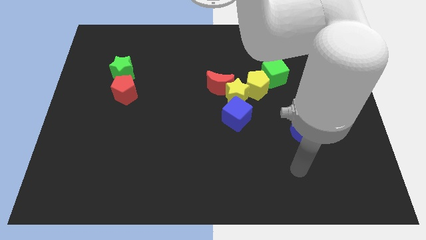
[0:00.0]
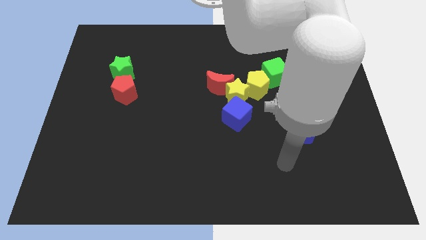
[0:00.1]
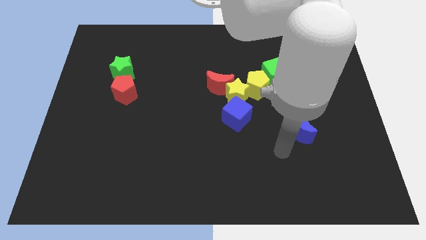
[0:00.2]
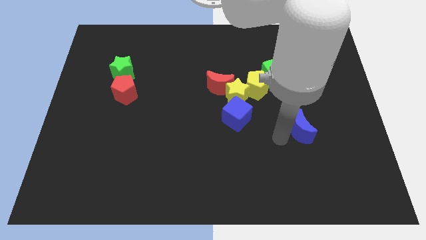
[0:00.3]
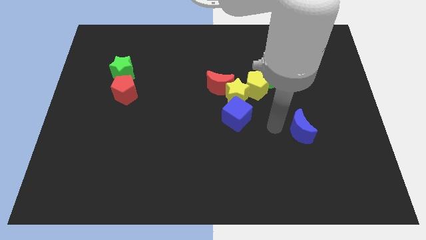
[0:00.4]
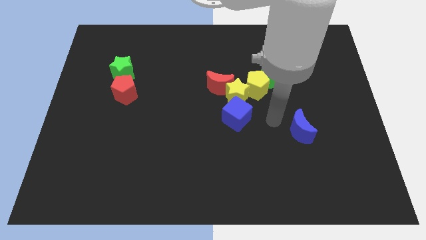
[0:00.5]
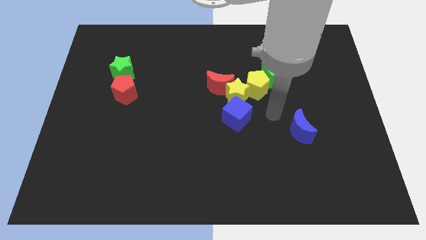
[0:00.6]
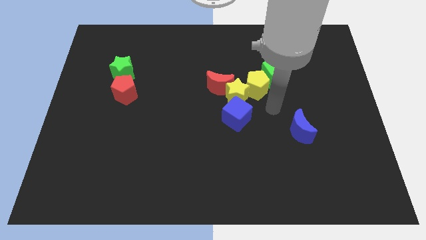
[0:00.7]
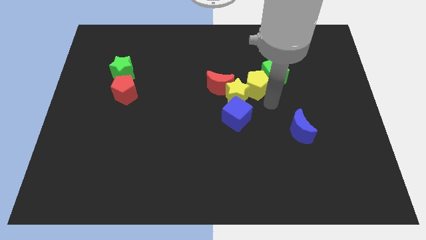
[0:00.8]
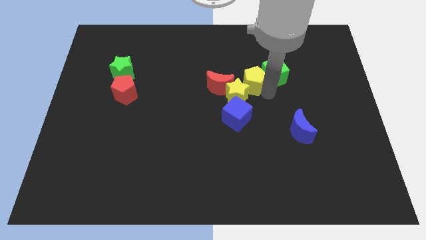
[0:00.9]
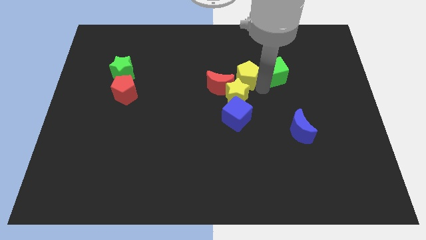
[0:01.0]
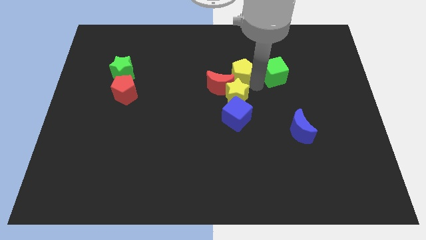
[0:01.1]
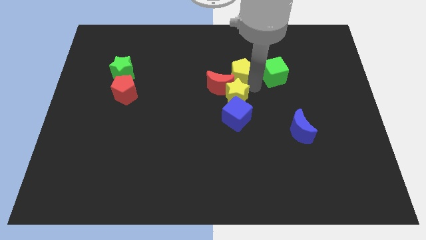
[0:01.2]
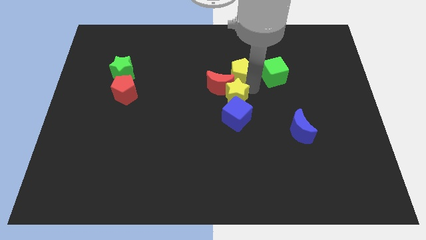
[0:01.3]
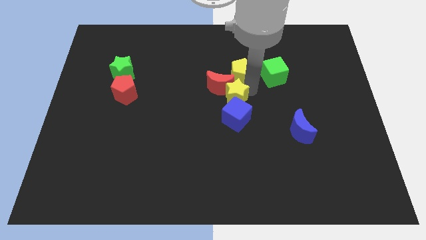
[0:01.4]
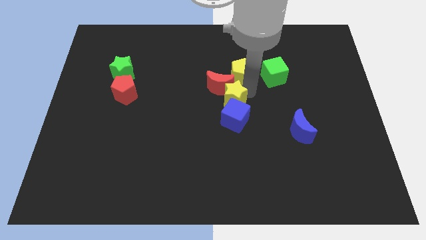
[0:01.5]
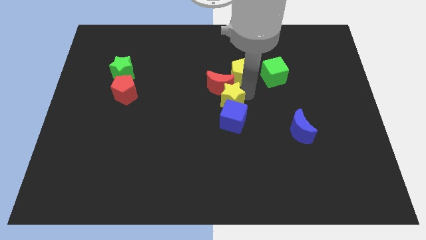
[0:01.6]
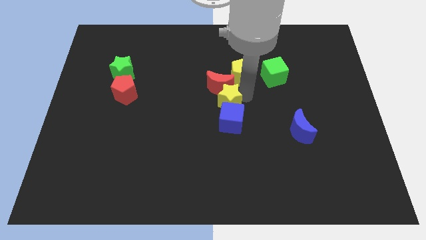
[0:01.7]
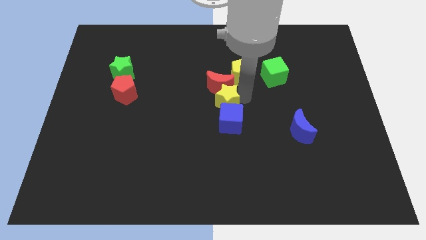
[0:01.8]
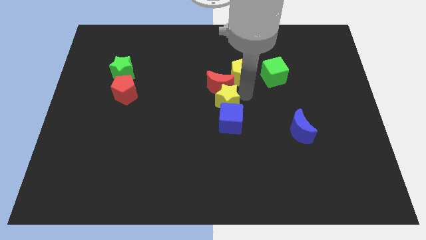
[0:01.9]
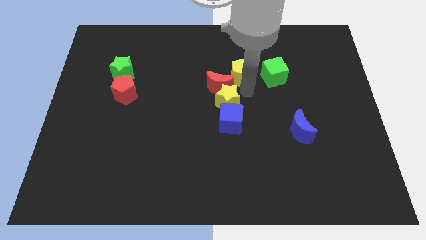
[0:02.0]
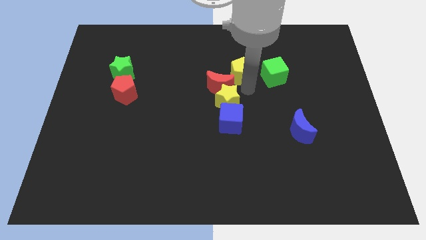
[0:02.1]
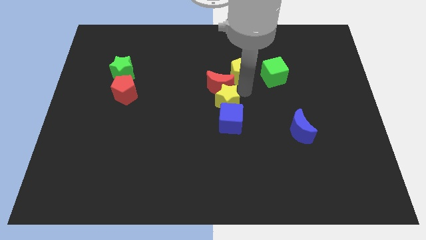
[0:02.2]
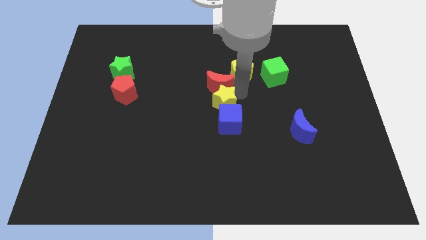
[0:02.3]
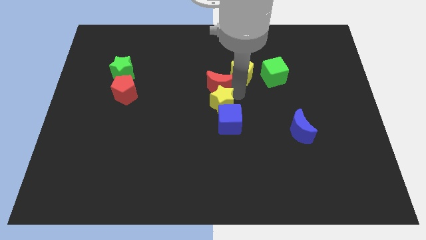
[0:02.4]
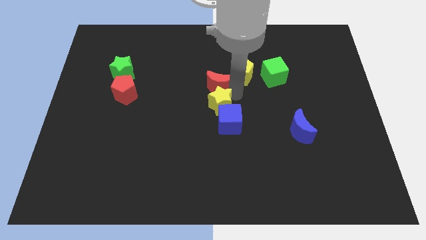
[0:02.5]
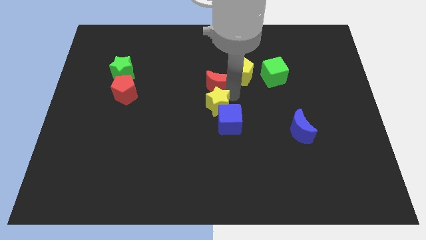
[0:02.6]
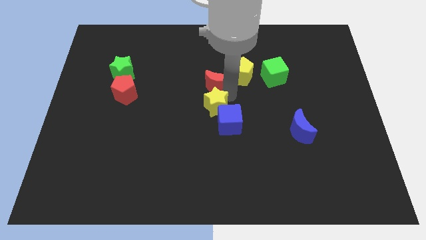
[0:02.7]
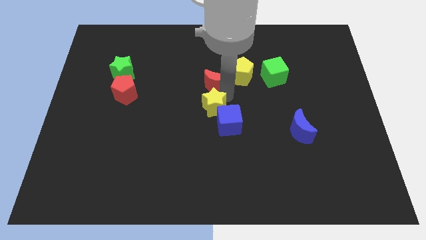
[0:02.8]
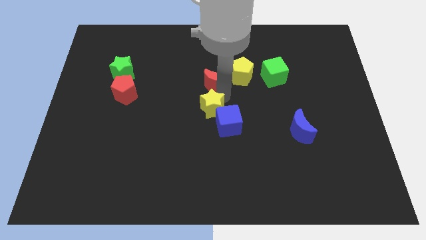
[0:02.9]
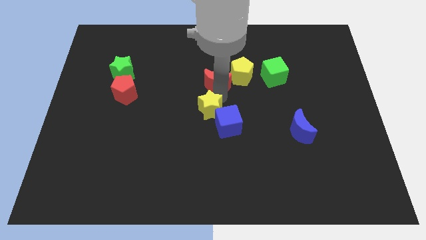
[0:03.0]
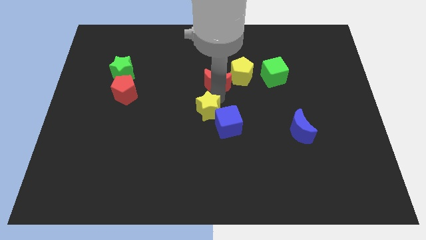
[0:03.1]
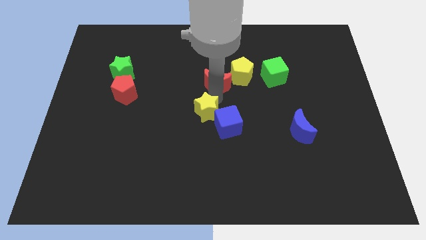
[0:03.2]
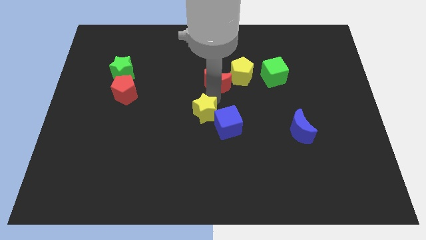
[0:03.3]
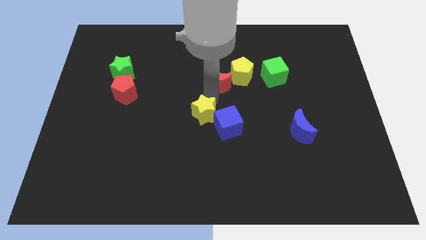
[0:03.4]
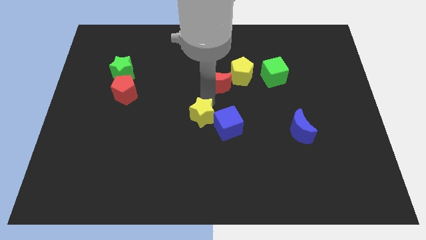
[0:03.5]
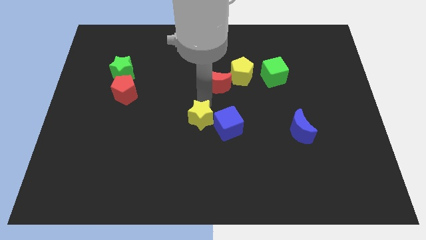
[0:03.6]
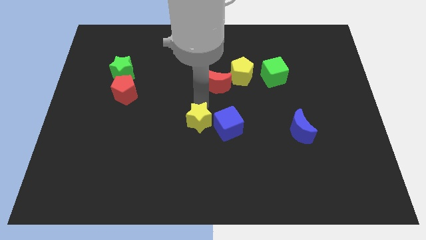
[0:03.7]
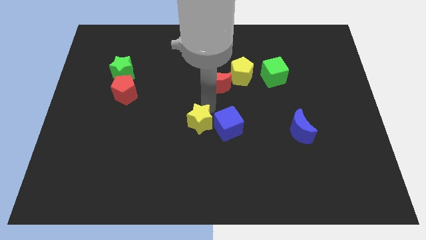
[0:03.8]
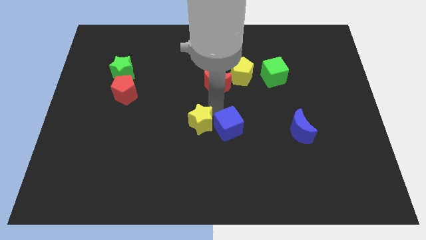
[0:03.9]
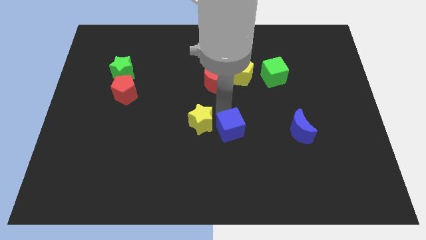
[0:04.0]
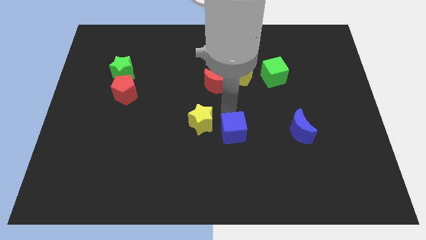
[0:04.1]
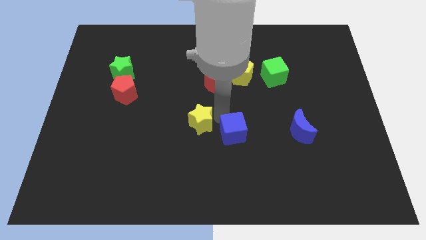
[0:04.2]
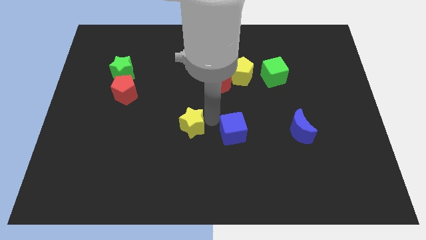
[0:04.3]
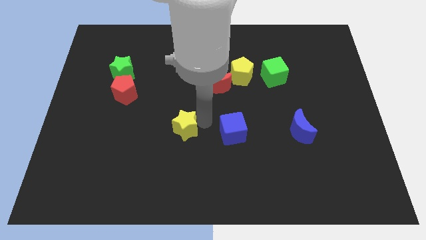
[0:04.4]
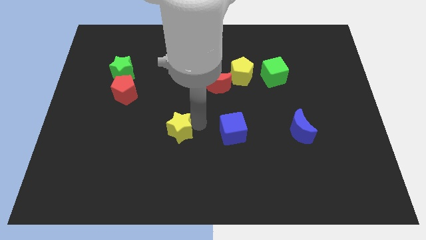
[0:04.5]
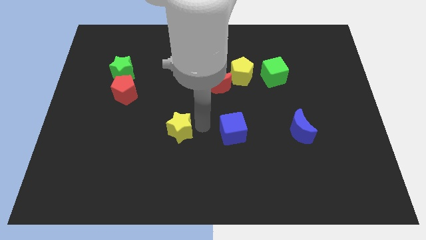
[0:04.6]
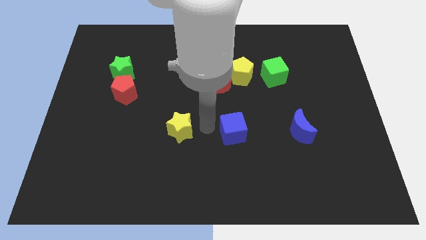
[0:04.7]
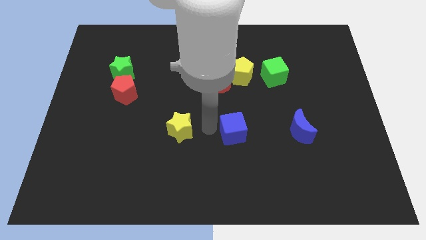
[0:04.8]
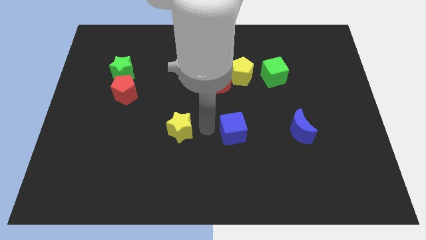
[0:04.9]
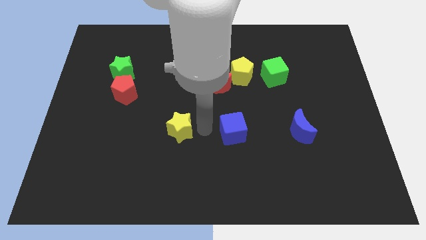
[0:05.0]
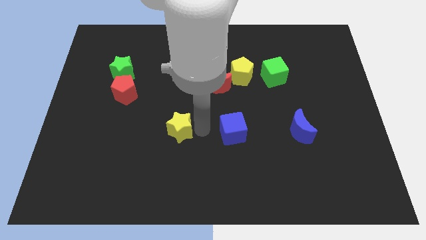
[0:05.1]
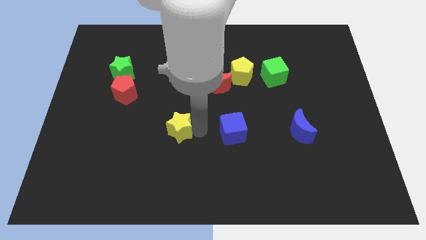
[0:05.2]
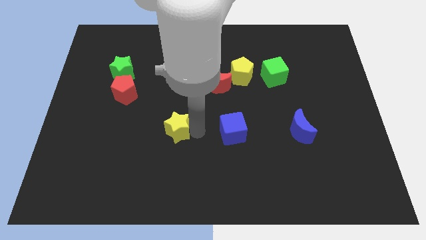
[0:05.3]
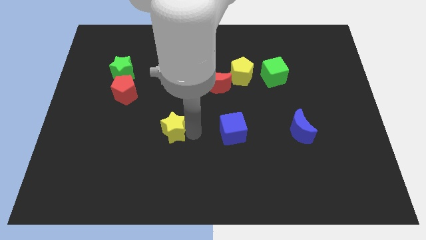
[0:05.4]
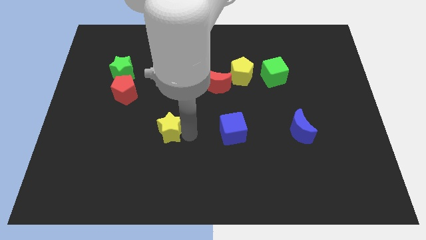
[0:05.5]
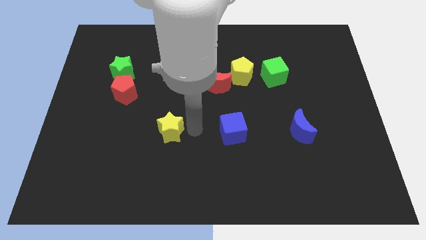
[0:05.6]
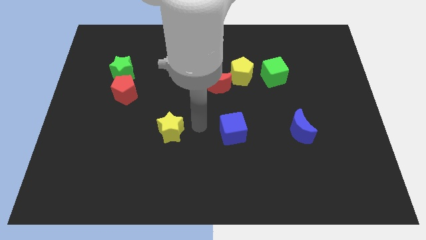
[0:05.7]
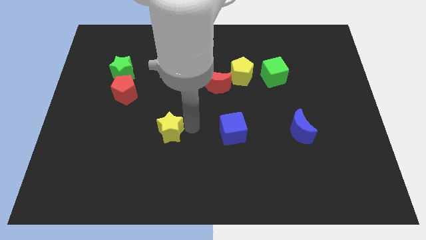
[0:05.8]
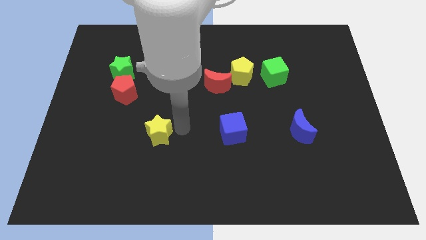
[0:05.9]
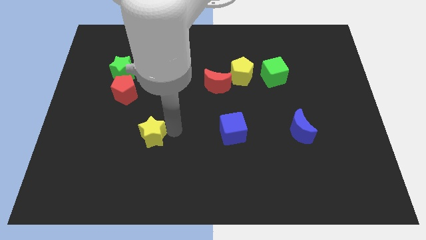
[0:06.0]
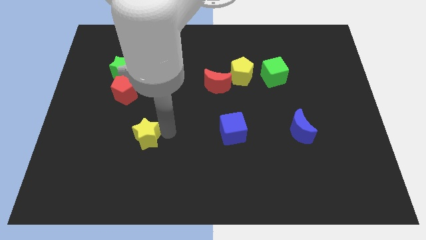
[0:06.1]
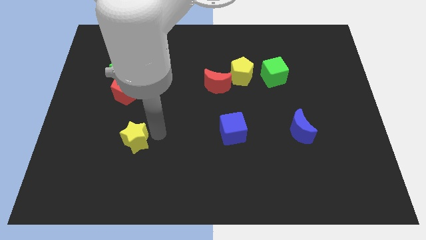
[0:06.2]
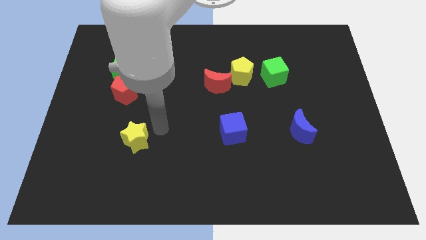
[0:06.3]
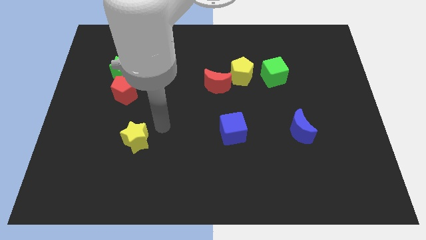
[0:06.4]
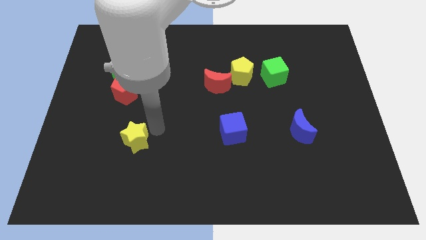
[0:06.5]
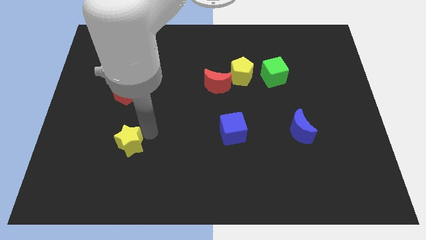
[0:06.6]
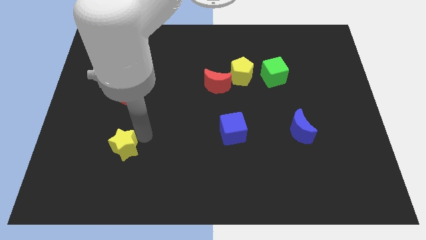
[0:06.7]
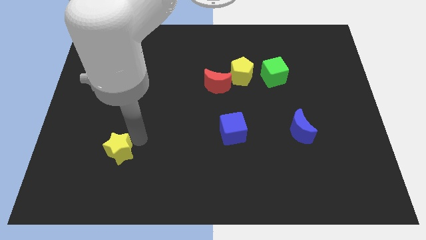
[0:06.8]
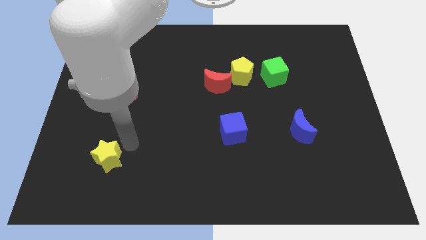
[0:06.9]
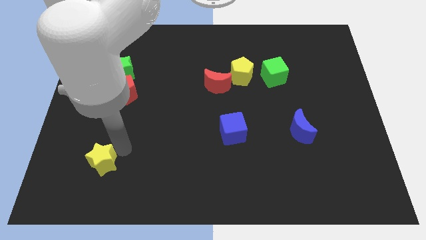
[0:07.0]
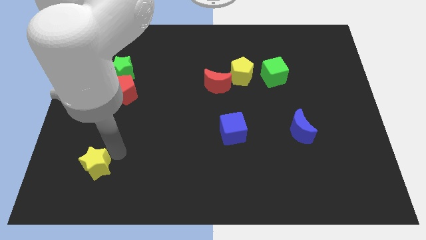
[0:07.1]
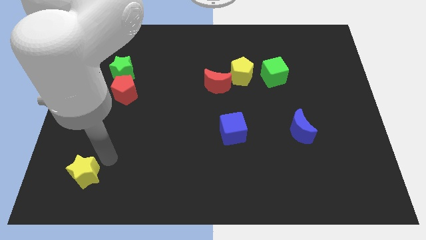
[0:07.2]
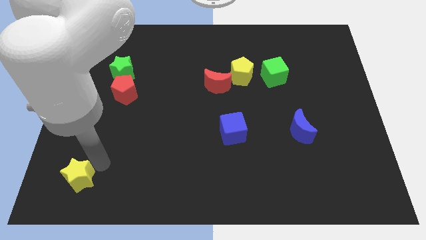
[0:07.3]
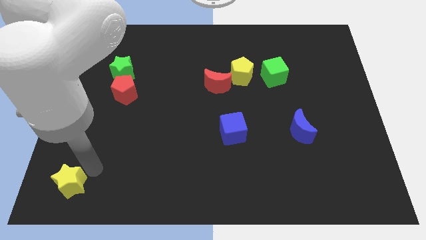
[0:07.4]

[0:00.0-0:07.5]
move the yellow star to the bottom left of the board
